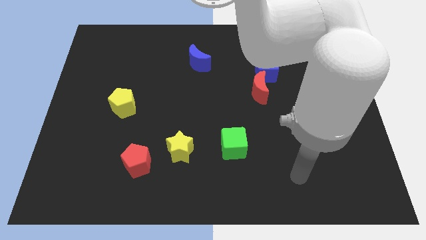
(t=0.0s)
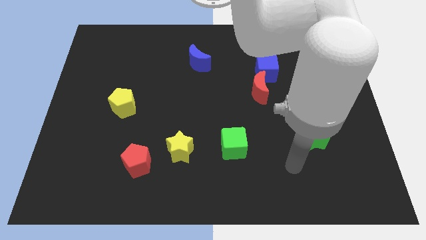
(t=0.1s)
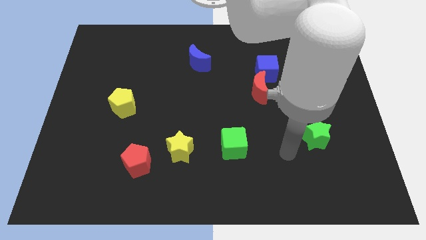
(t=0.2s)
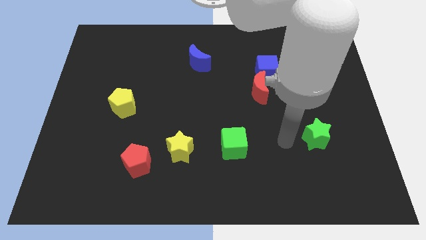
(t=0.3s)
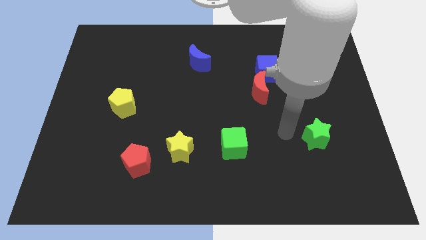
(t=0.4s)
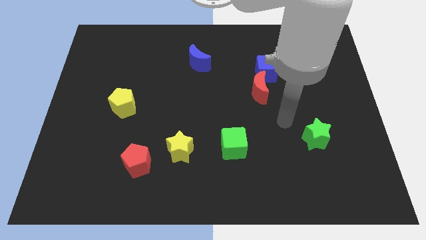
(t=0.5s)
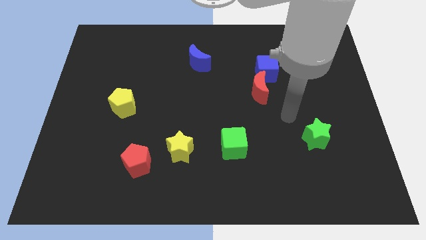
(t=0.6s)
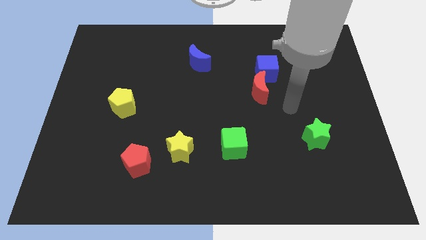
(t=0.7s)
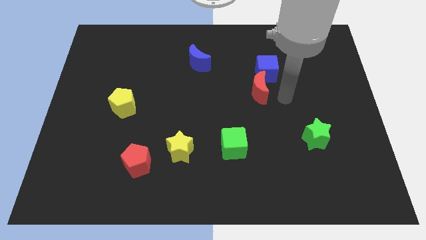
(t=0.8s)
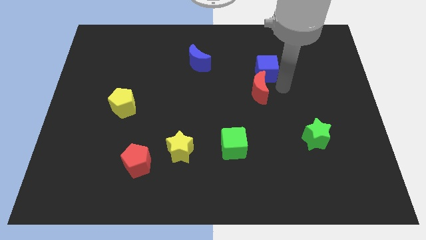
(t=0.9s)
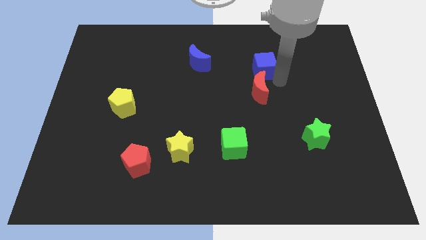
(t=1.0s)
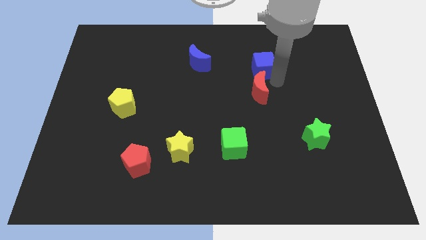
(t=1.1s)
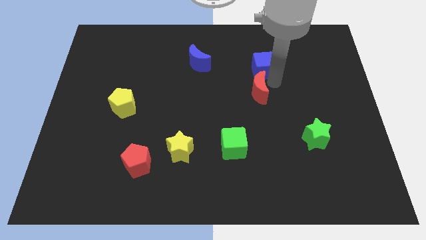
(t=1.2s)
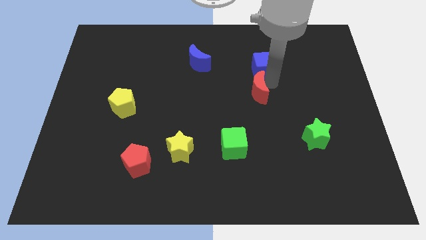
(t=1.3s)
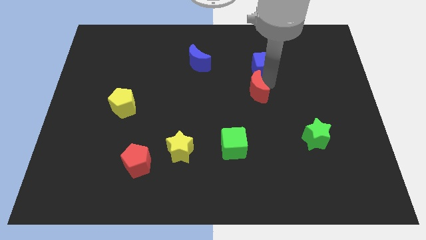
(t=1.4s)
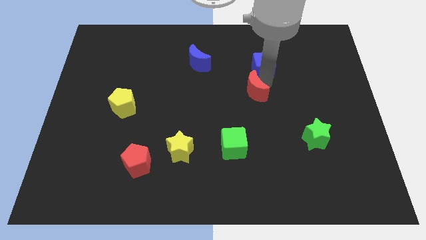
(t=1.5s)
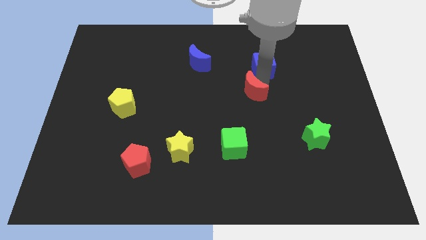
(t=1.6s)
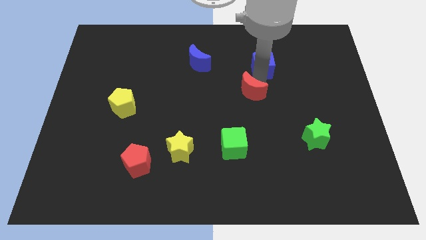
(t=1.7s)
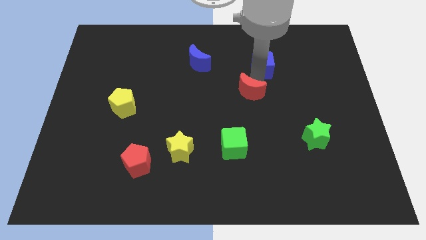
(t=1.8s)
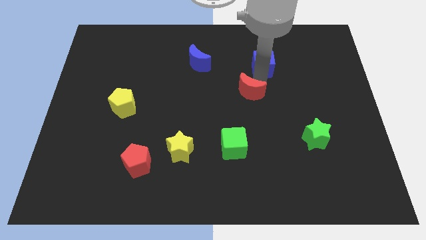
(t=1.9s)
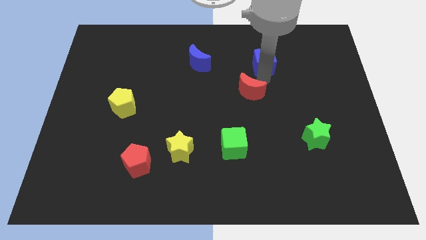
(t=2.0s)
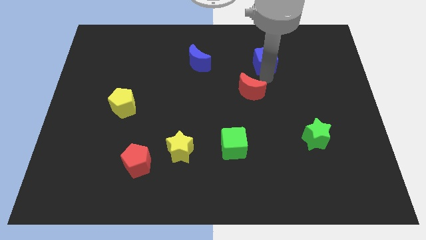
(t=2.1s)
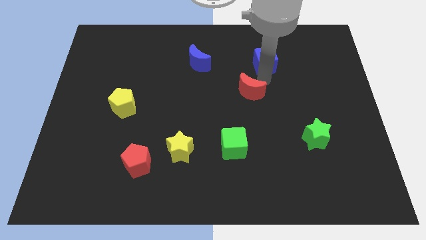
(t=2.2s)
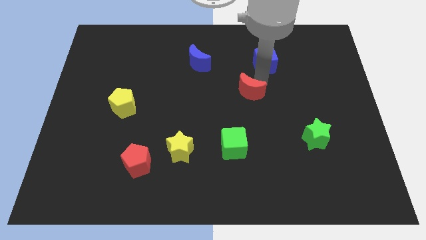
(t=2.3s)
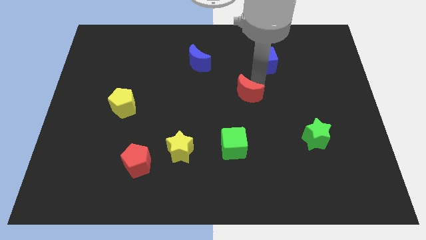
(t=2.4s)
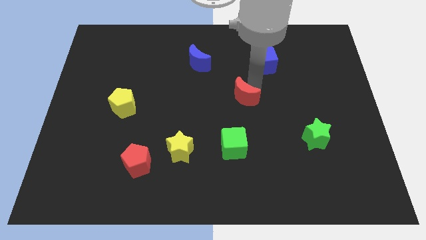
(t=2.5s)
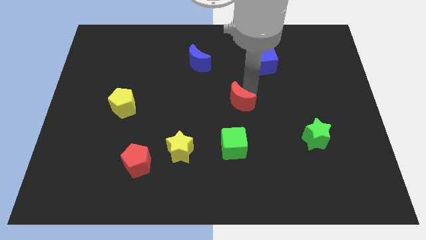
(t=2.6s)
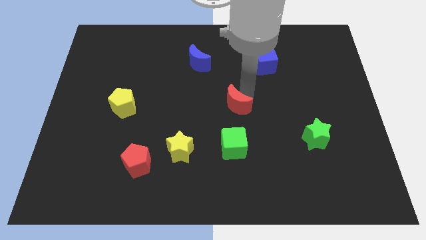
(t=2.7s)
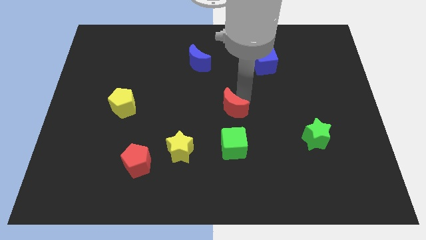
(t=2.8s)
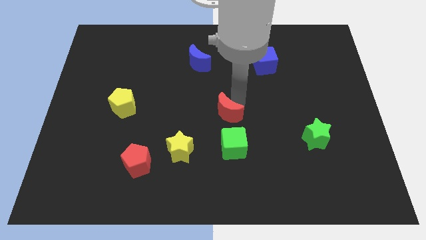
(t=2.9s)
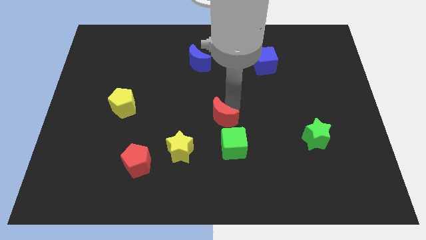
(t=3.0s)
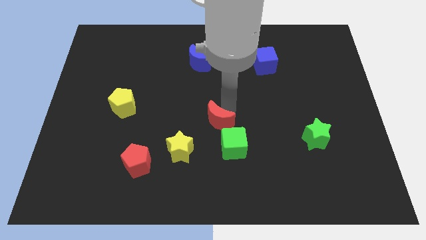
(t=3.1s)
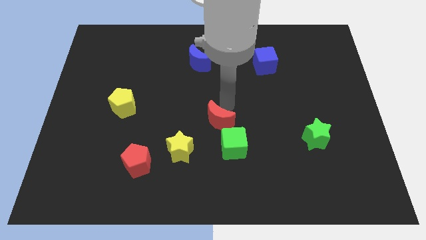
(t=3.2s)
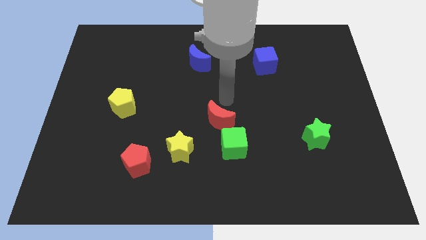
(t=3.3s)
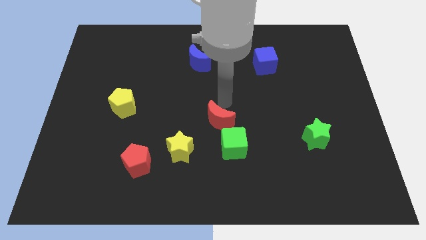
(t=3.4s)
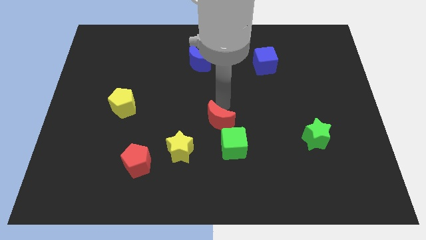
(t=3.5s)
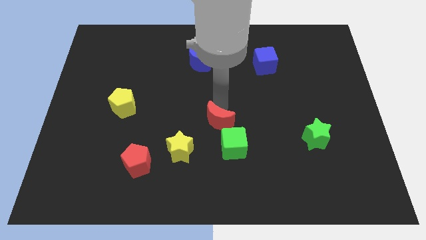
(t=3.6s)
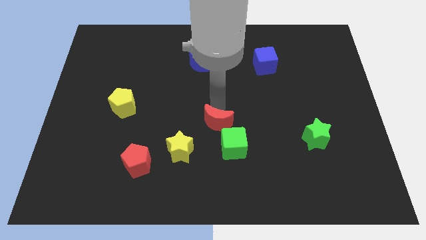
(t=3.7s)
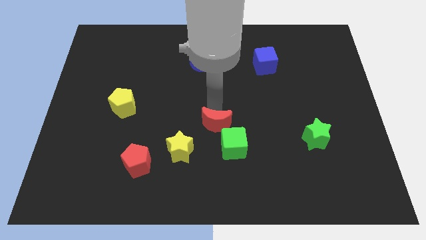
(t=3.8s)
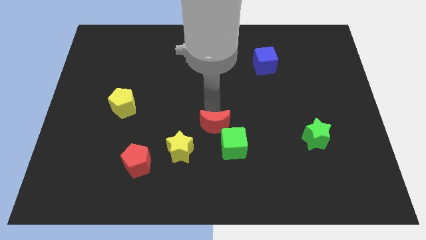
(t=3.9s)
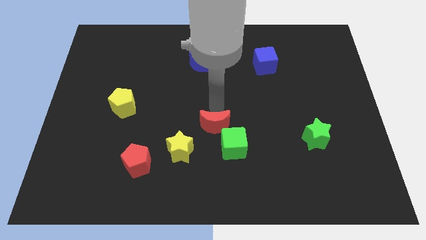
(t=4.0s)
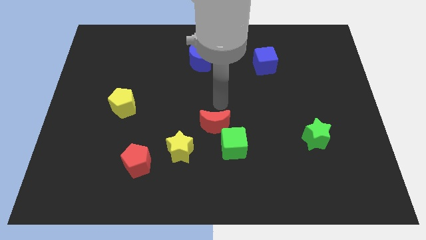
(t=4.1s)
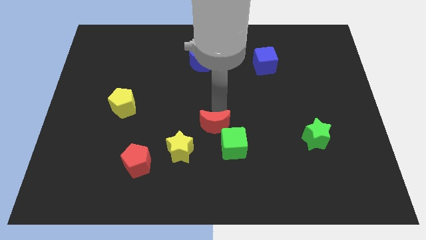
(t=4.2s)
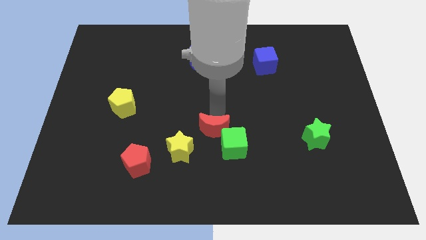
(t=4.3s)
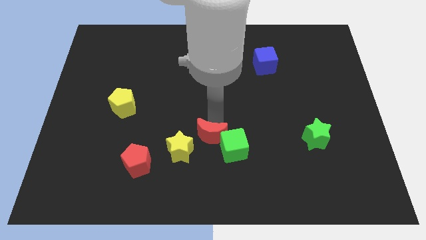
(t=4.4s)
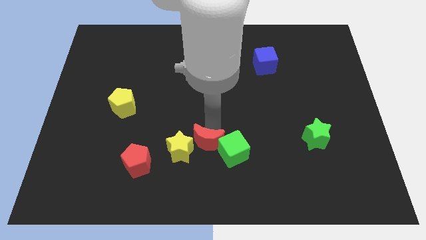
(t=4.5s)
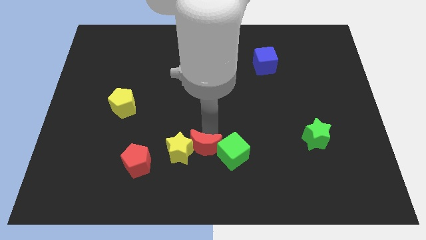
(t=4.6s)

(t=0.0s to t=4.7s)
push the red moon down and to the left

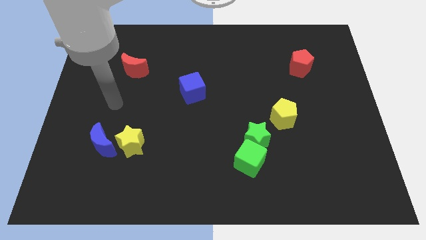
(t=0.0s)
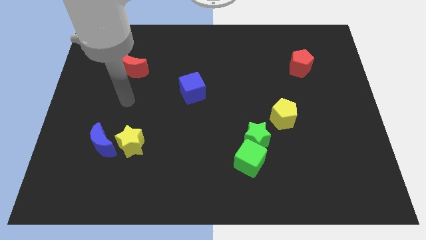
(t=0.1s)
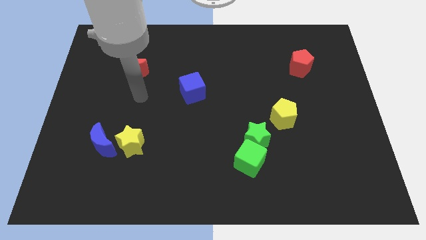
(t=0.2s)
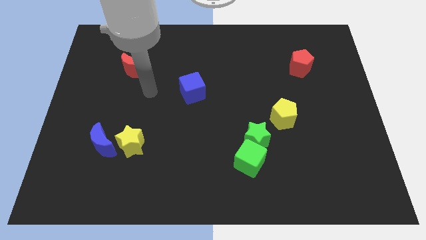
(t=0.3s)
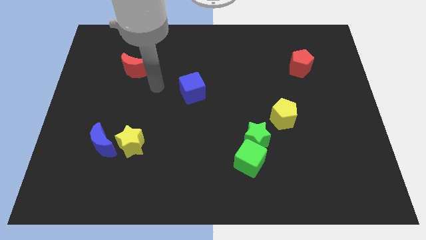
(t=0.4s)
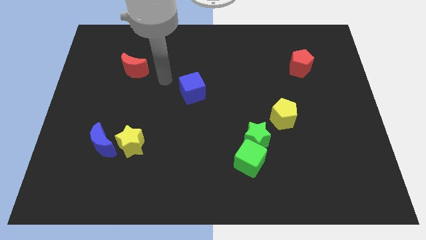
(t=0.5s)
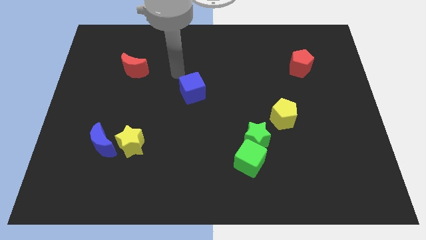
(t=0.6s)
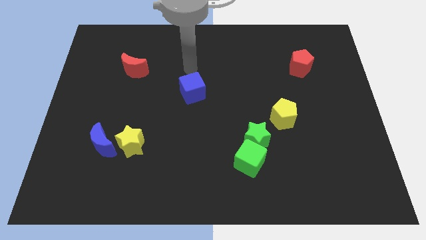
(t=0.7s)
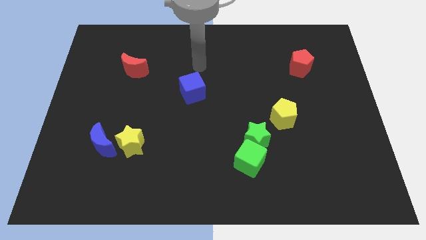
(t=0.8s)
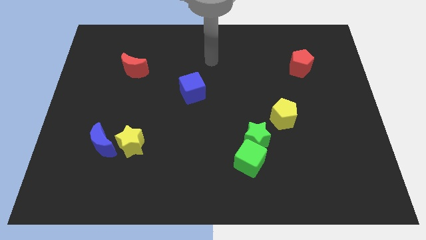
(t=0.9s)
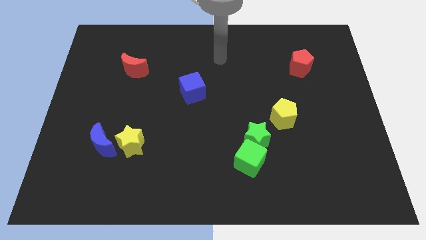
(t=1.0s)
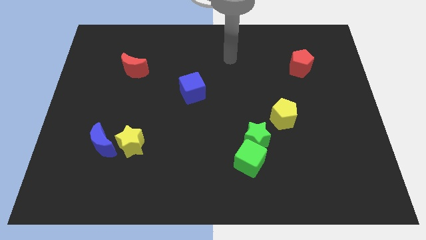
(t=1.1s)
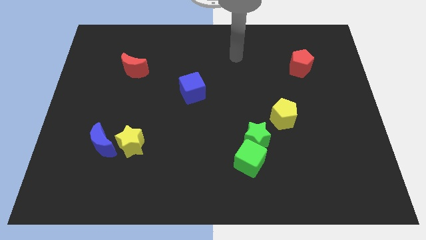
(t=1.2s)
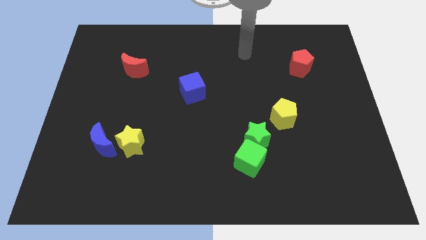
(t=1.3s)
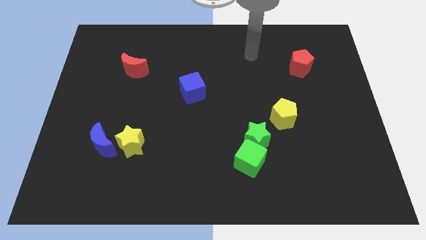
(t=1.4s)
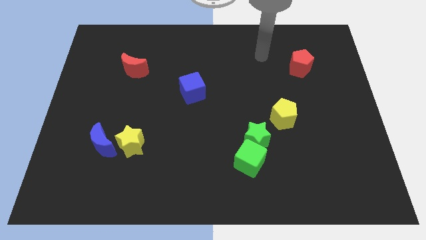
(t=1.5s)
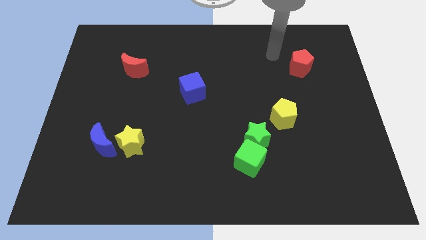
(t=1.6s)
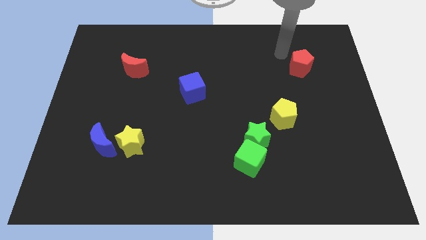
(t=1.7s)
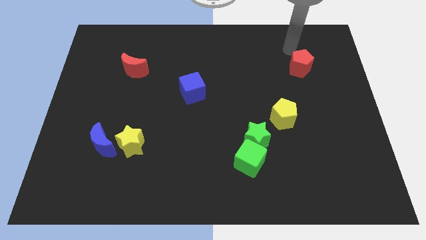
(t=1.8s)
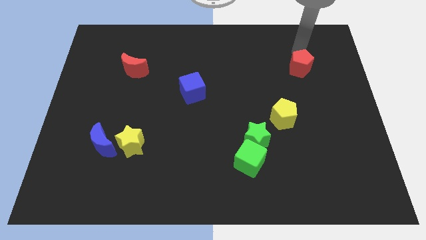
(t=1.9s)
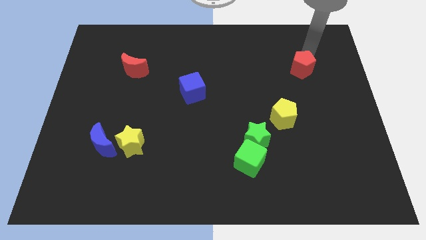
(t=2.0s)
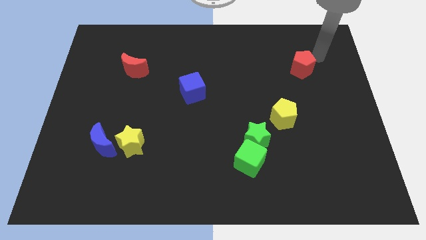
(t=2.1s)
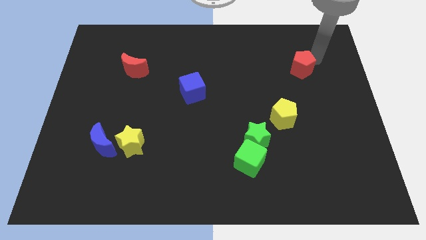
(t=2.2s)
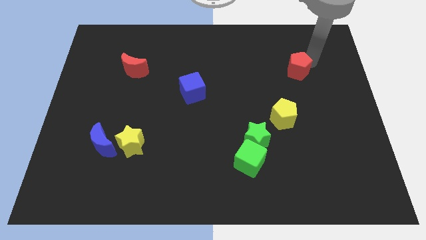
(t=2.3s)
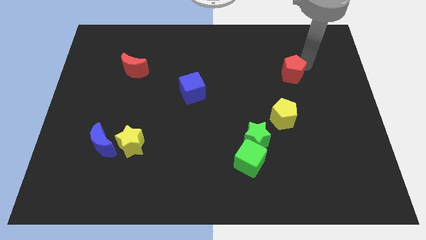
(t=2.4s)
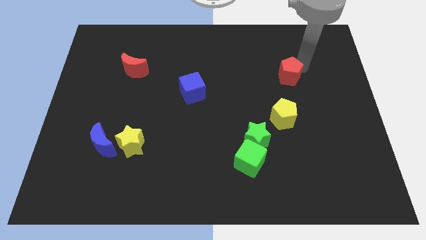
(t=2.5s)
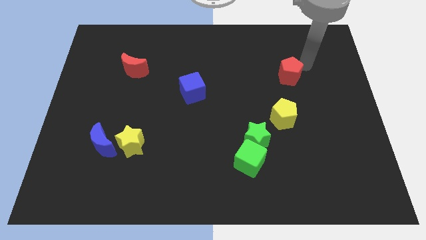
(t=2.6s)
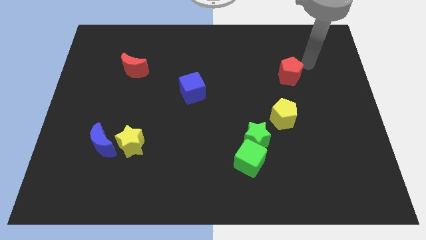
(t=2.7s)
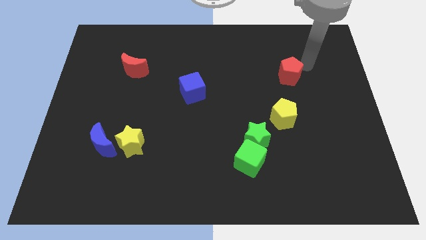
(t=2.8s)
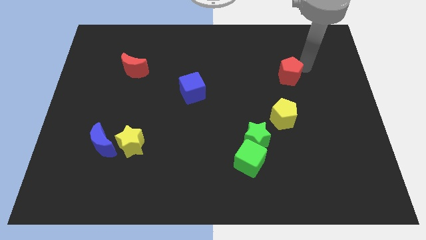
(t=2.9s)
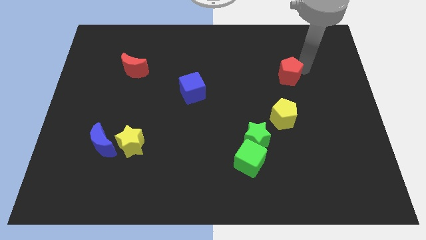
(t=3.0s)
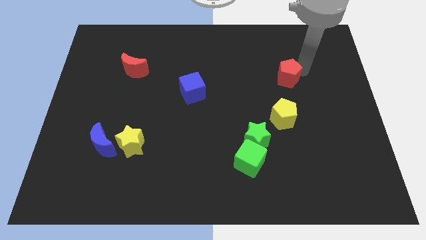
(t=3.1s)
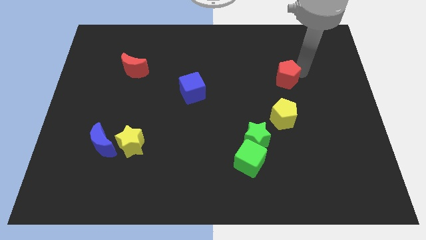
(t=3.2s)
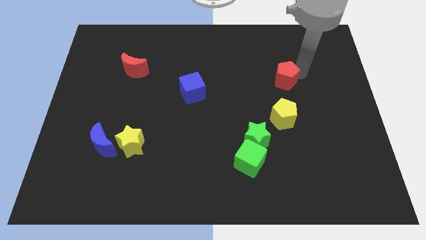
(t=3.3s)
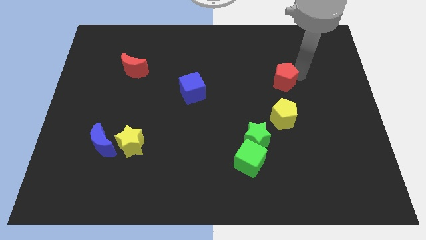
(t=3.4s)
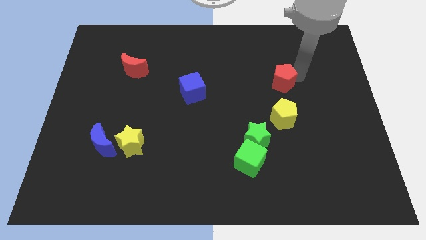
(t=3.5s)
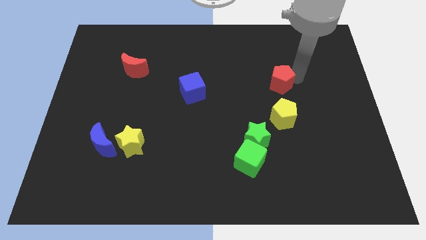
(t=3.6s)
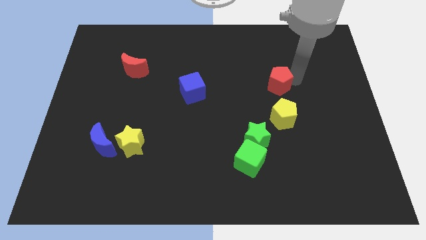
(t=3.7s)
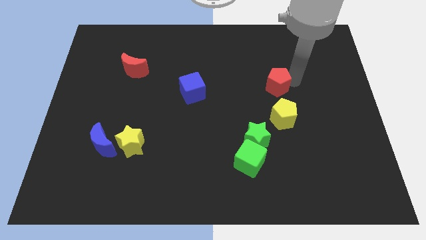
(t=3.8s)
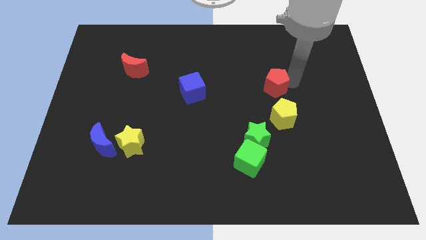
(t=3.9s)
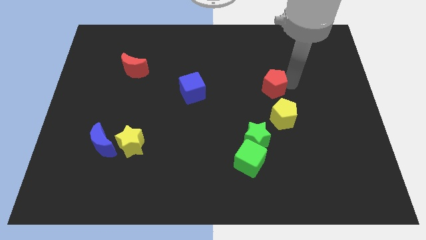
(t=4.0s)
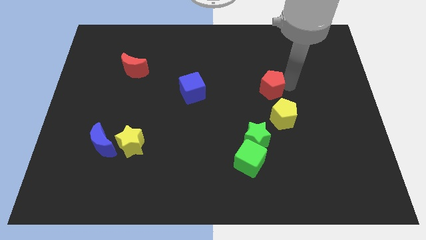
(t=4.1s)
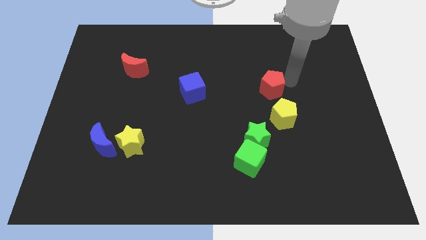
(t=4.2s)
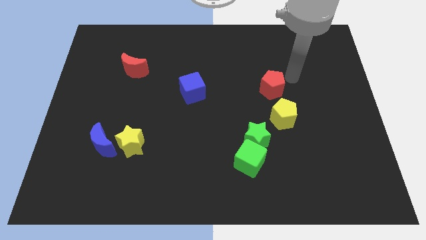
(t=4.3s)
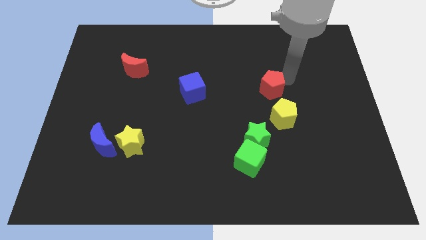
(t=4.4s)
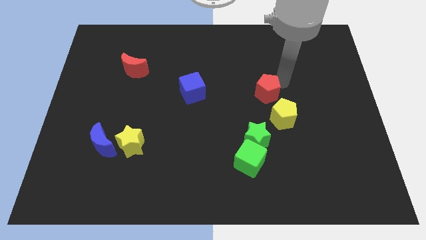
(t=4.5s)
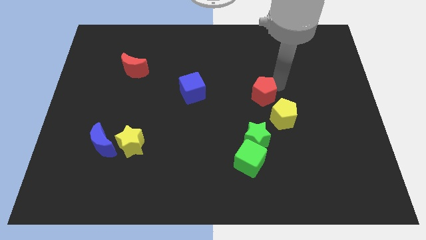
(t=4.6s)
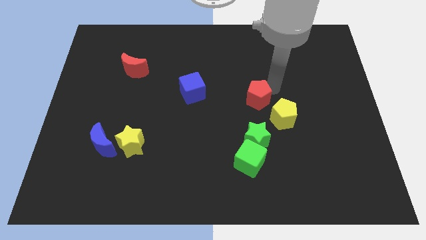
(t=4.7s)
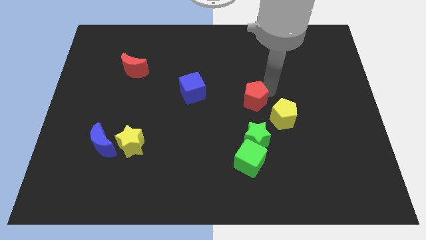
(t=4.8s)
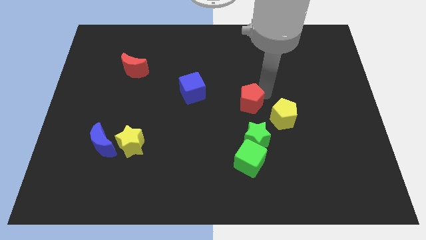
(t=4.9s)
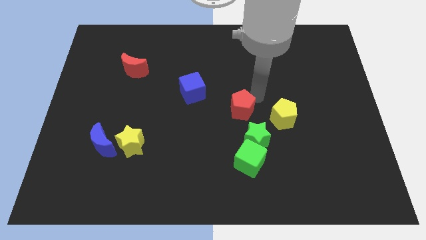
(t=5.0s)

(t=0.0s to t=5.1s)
move the red pentagon diagonally down and left
